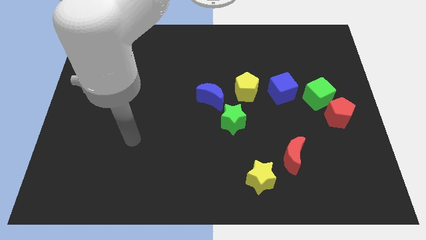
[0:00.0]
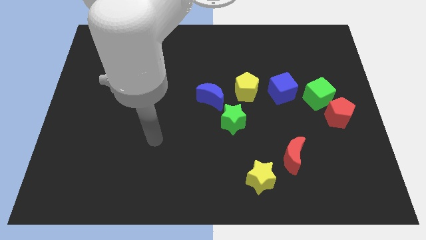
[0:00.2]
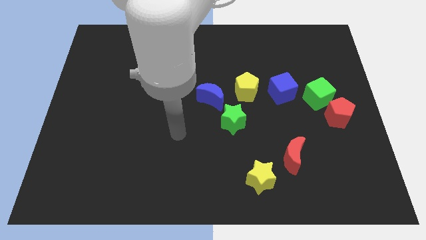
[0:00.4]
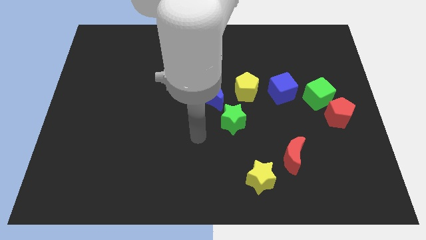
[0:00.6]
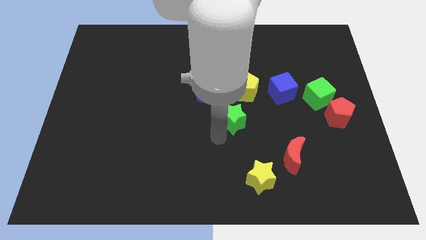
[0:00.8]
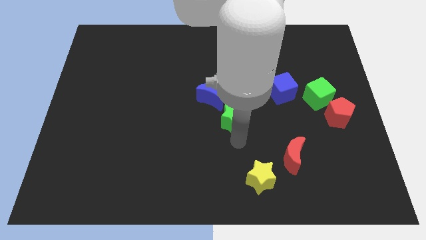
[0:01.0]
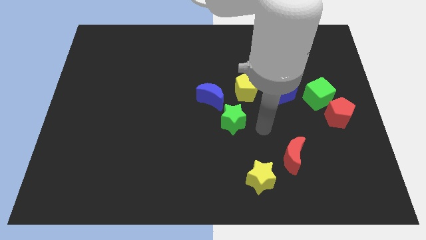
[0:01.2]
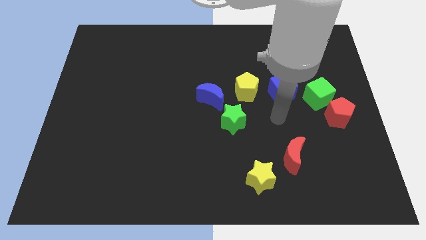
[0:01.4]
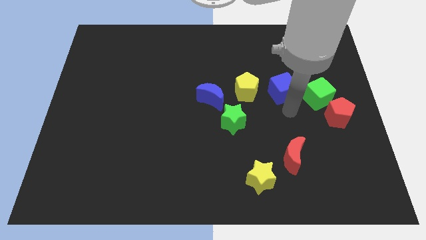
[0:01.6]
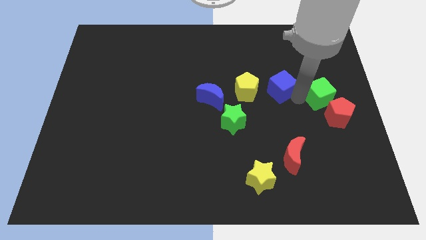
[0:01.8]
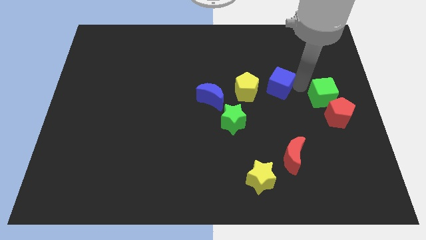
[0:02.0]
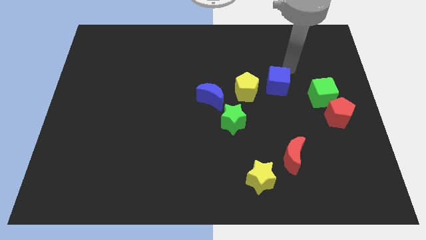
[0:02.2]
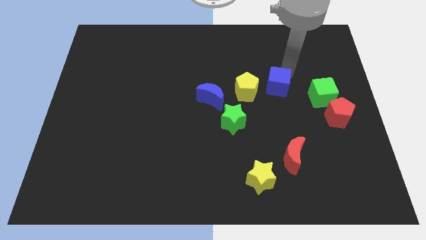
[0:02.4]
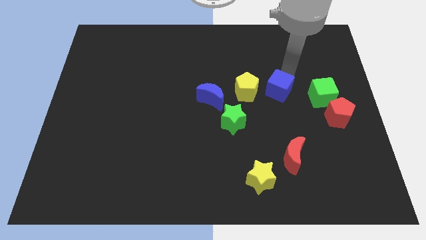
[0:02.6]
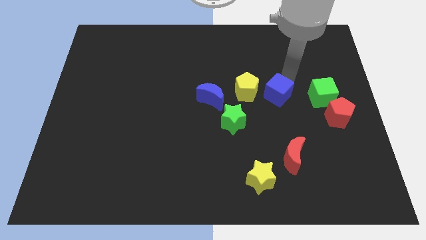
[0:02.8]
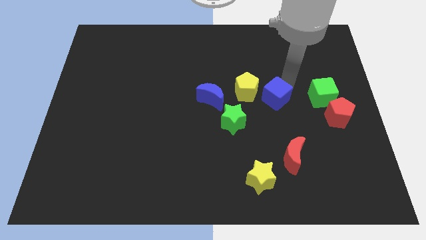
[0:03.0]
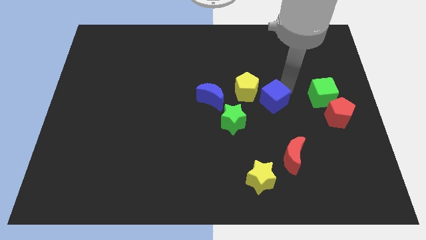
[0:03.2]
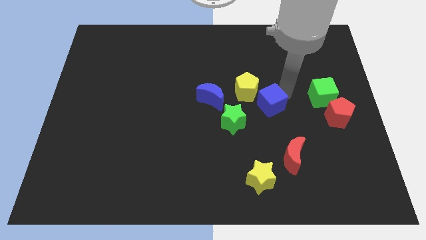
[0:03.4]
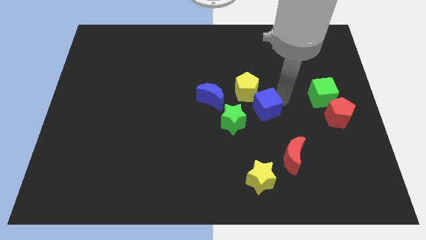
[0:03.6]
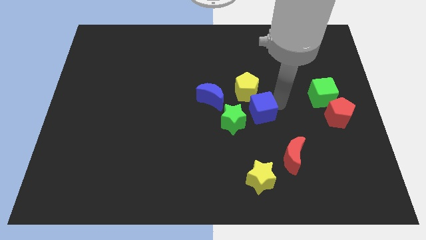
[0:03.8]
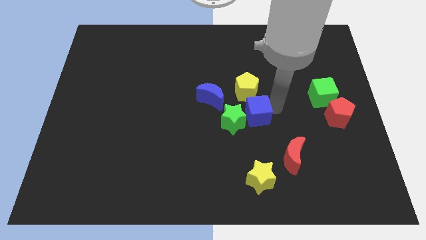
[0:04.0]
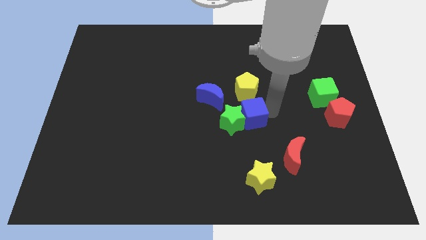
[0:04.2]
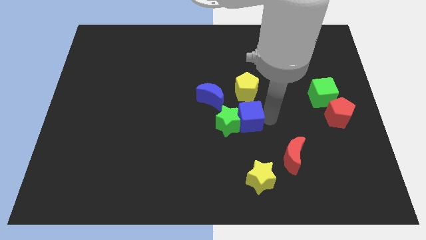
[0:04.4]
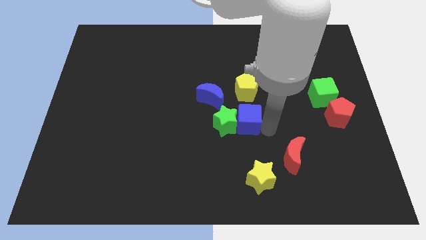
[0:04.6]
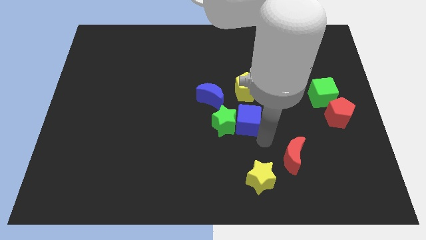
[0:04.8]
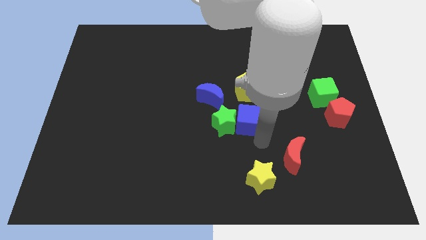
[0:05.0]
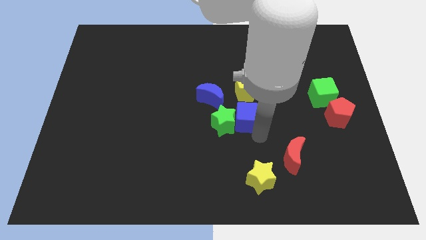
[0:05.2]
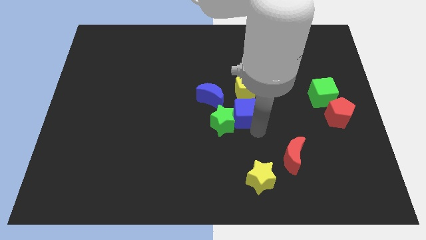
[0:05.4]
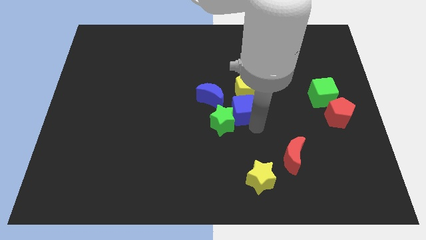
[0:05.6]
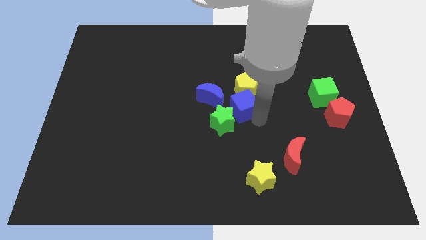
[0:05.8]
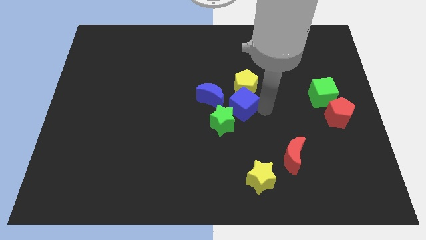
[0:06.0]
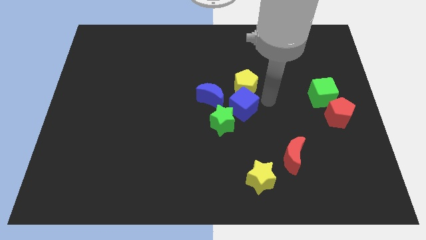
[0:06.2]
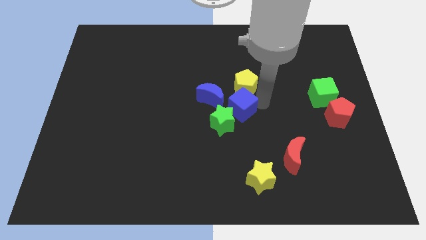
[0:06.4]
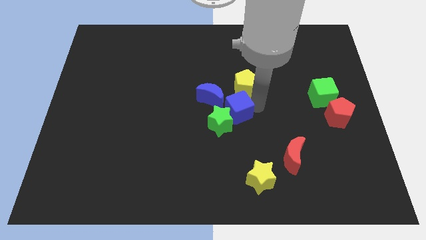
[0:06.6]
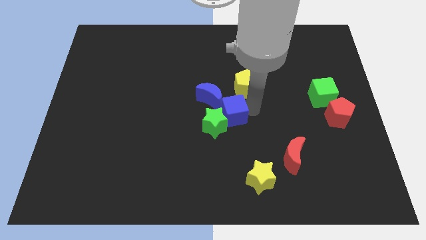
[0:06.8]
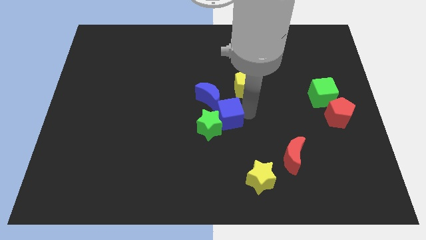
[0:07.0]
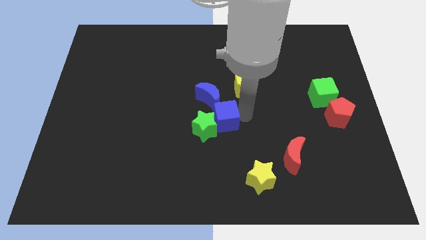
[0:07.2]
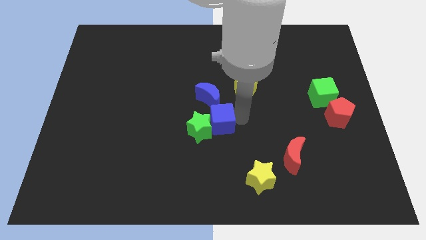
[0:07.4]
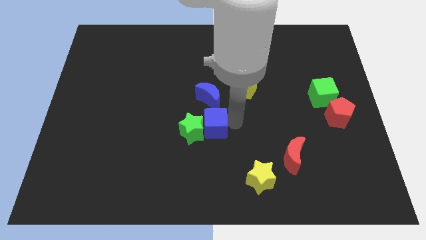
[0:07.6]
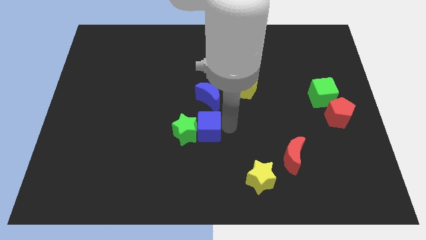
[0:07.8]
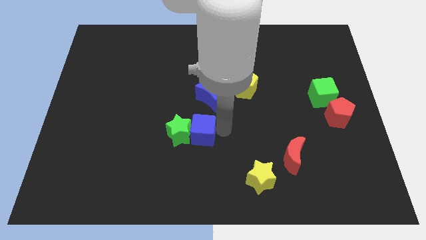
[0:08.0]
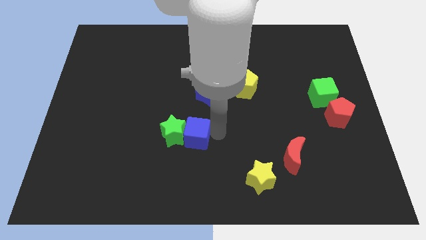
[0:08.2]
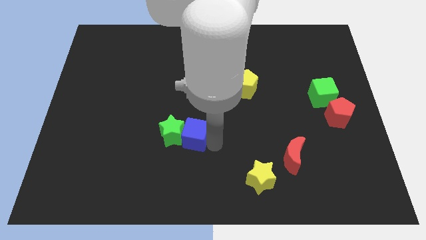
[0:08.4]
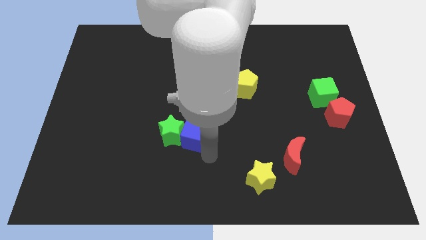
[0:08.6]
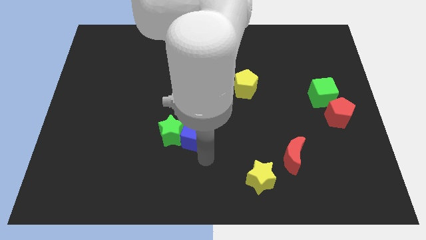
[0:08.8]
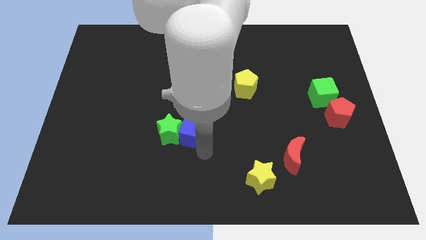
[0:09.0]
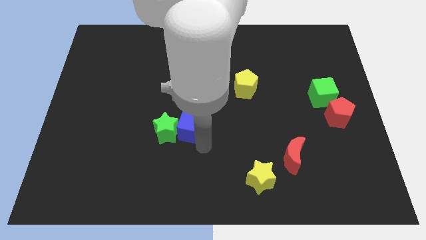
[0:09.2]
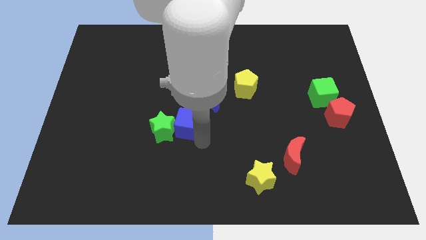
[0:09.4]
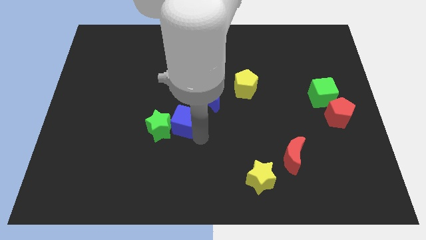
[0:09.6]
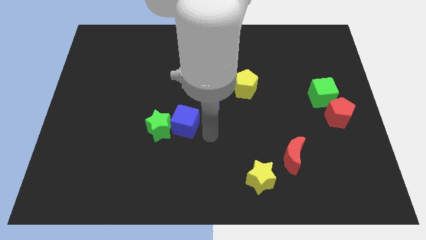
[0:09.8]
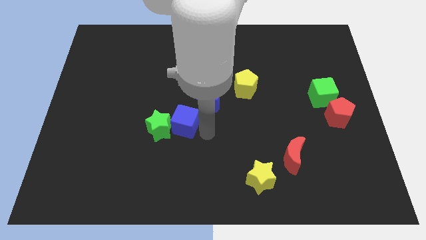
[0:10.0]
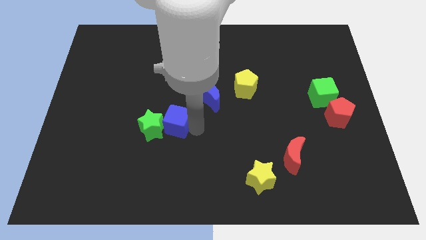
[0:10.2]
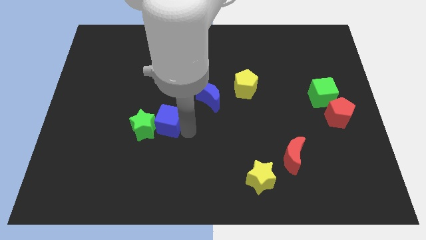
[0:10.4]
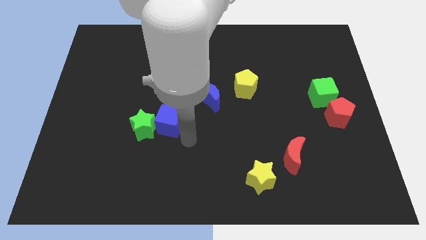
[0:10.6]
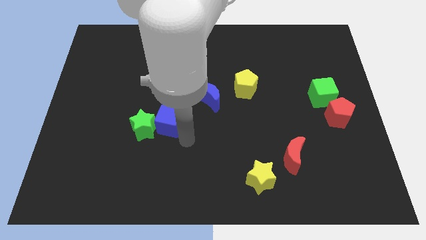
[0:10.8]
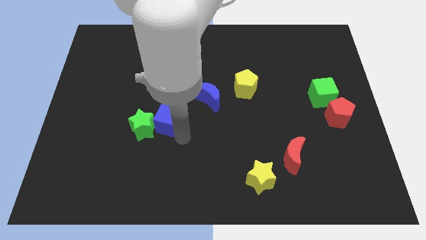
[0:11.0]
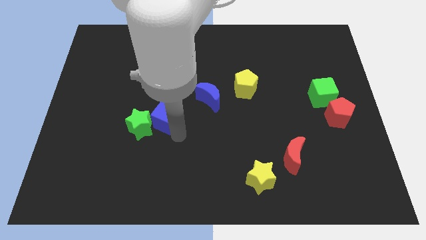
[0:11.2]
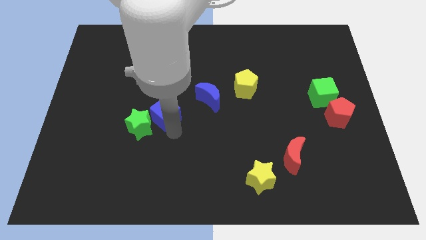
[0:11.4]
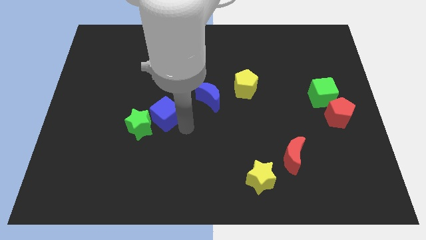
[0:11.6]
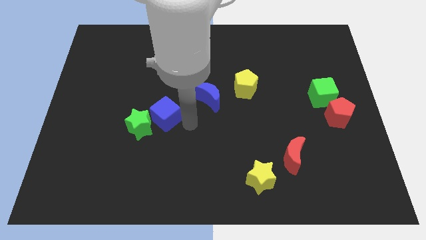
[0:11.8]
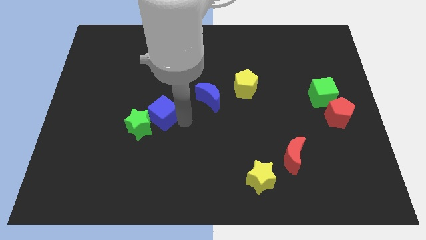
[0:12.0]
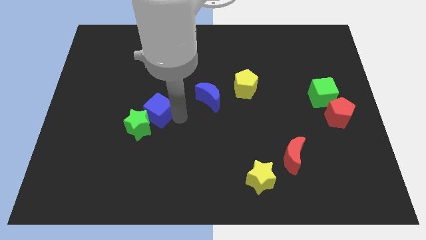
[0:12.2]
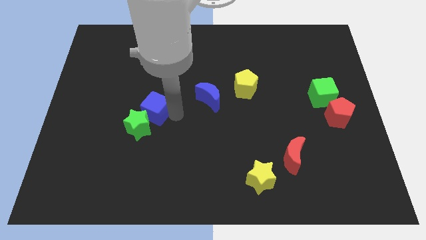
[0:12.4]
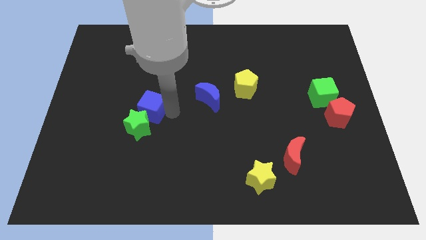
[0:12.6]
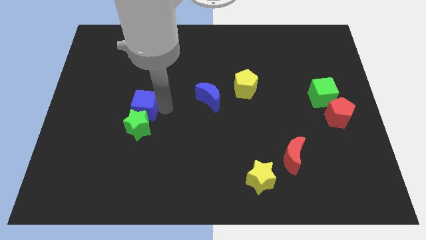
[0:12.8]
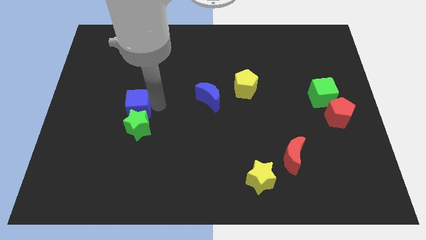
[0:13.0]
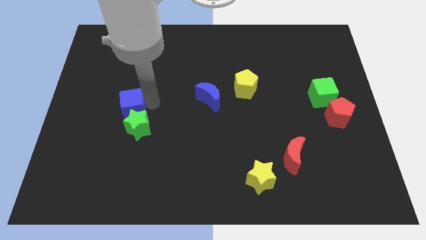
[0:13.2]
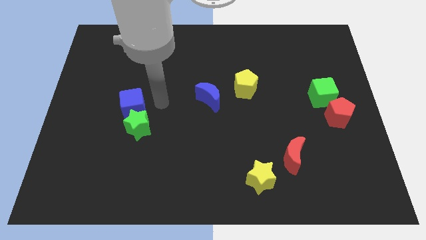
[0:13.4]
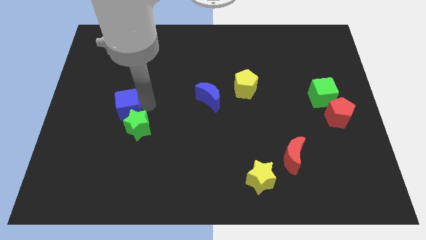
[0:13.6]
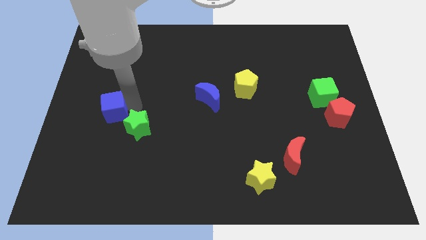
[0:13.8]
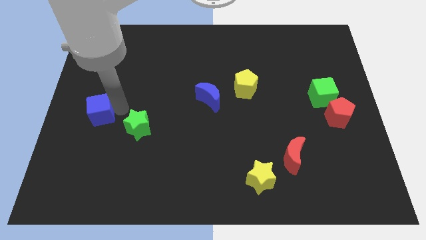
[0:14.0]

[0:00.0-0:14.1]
slide the blue cube to the center left
